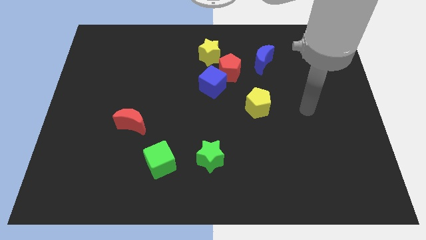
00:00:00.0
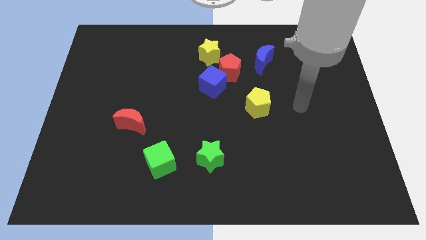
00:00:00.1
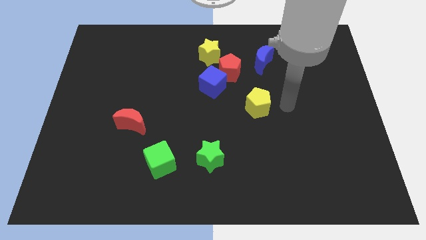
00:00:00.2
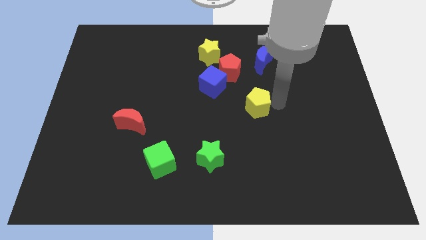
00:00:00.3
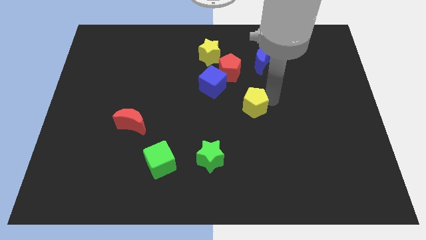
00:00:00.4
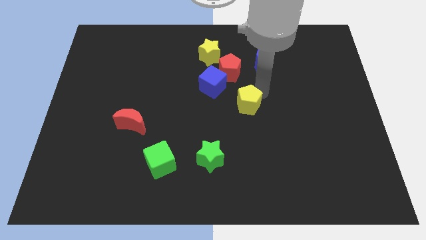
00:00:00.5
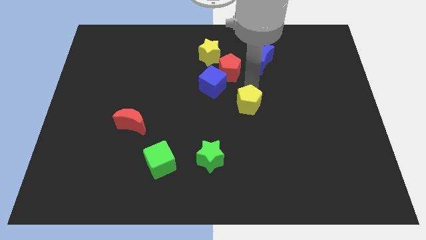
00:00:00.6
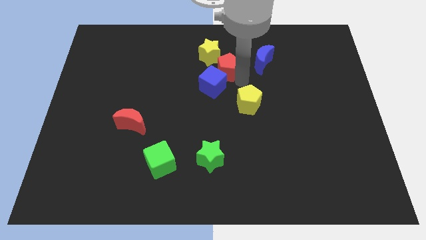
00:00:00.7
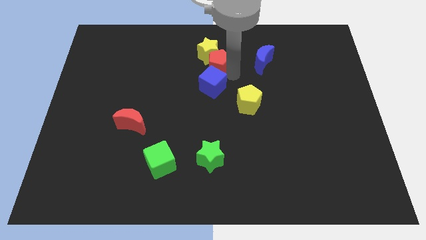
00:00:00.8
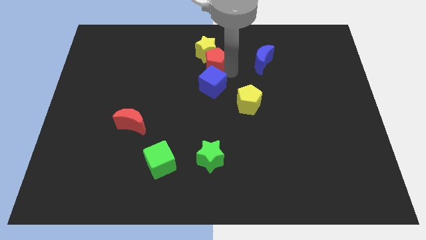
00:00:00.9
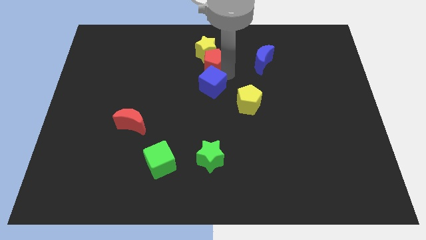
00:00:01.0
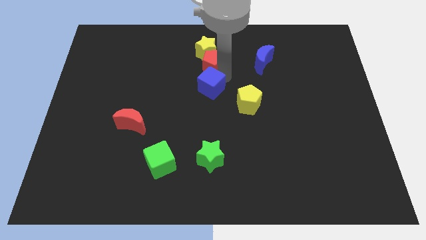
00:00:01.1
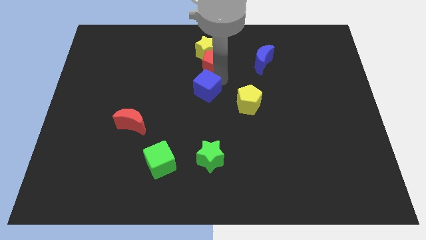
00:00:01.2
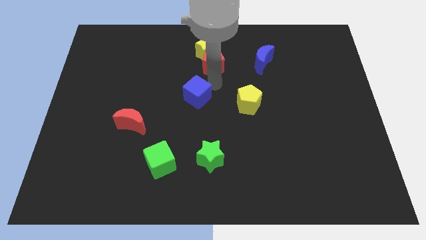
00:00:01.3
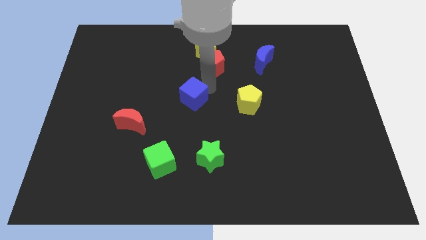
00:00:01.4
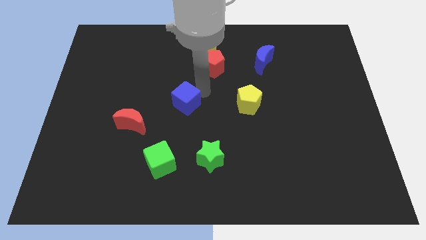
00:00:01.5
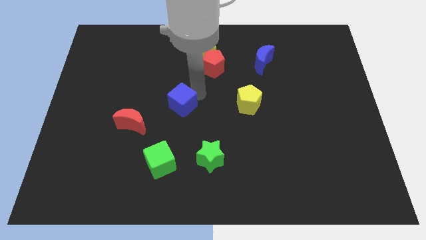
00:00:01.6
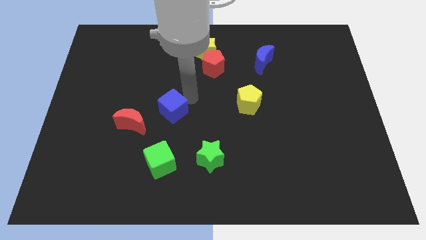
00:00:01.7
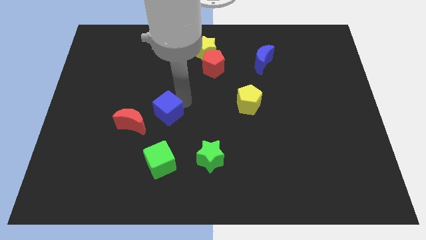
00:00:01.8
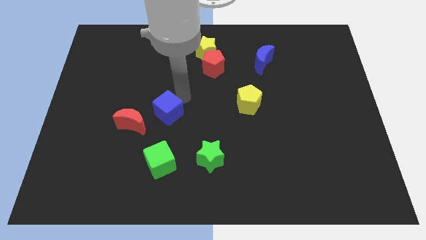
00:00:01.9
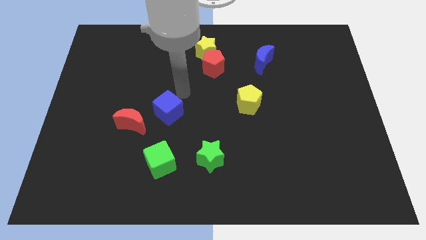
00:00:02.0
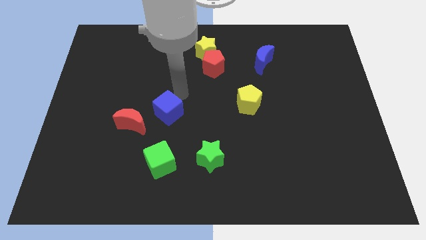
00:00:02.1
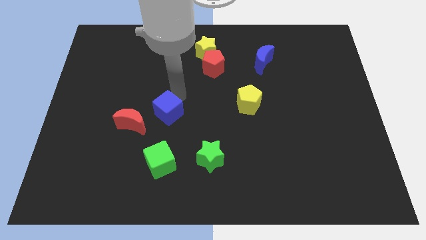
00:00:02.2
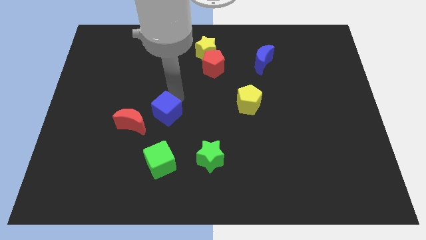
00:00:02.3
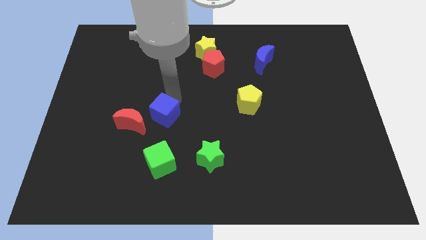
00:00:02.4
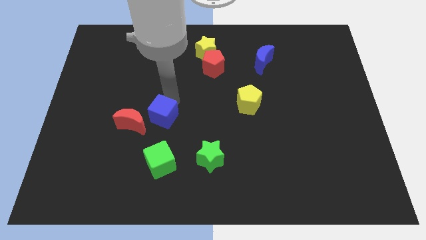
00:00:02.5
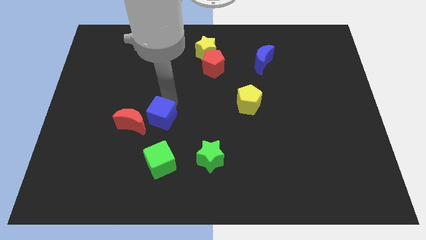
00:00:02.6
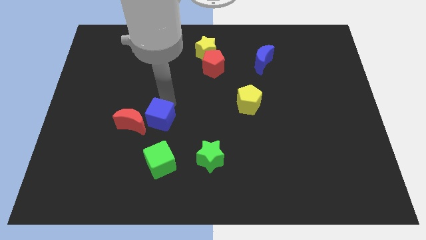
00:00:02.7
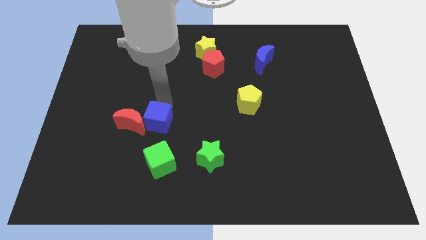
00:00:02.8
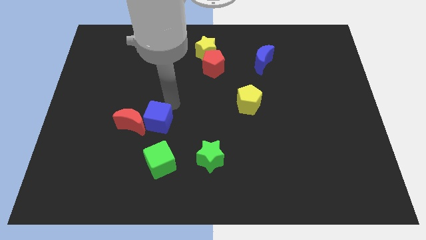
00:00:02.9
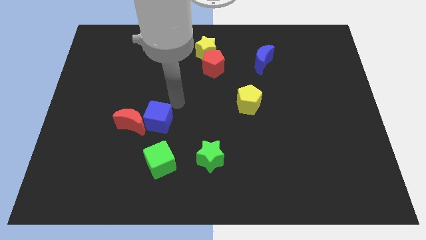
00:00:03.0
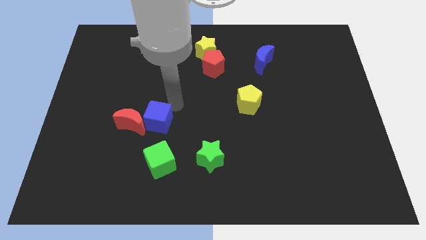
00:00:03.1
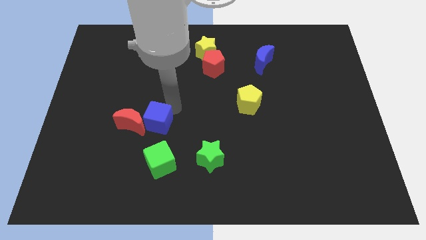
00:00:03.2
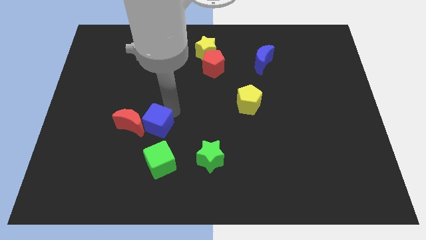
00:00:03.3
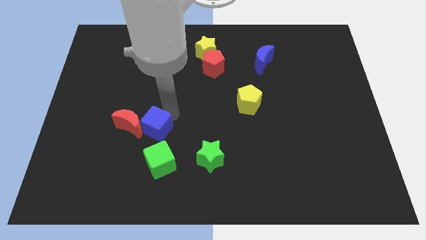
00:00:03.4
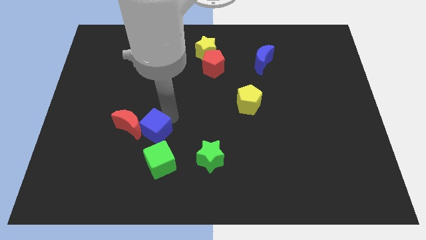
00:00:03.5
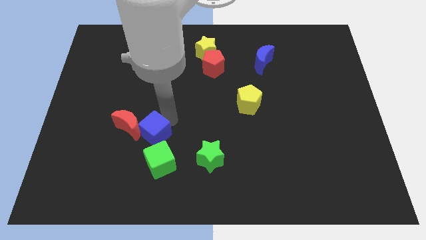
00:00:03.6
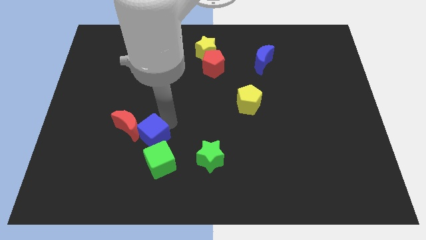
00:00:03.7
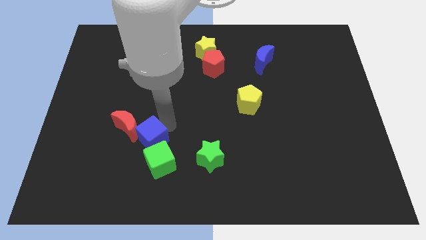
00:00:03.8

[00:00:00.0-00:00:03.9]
push the blue cube diagonally downwards and left

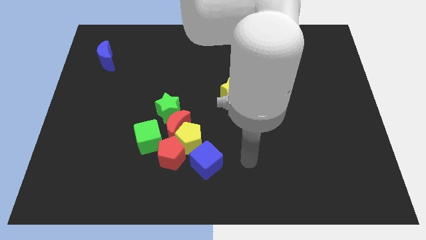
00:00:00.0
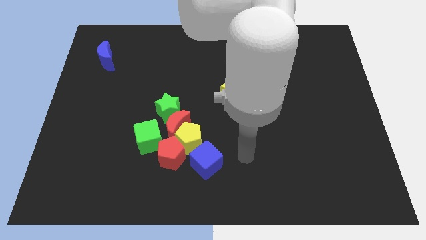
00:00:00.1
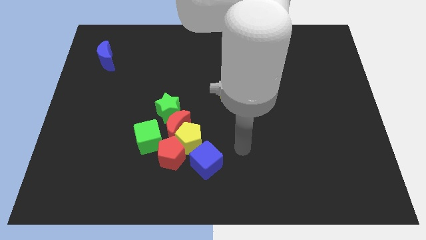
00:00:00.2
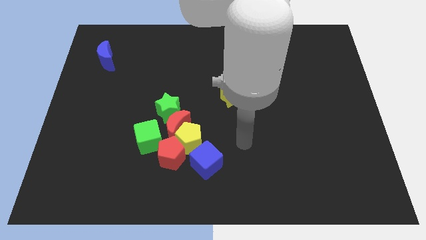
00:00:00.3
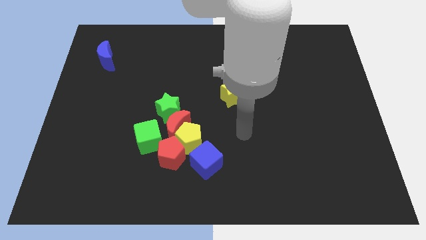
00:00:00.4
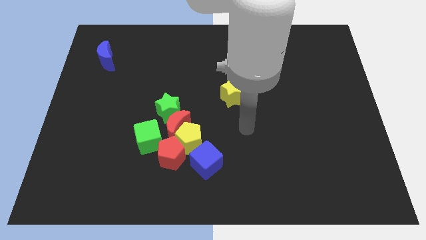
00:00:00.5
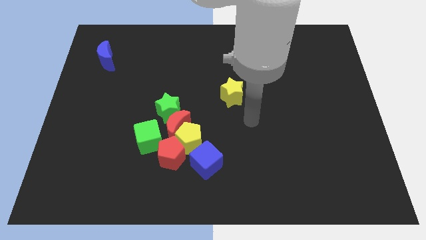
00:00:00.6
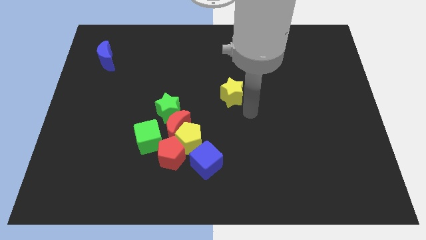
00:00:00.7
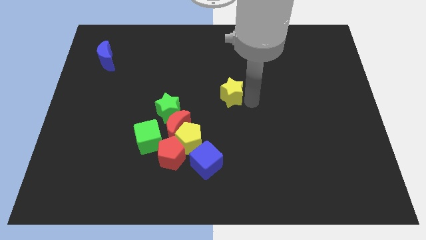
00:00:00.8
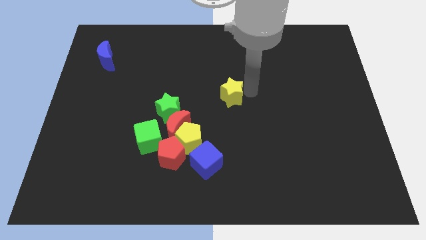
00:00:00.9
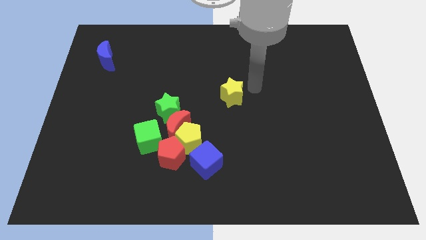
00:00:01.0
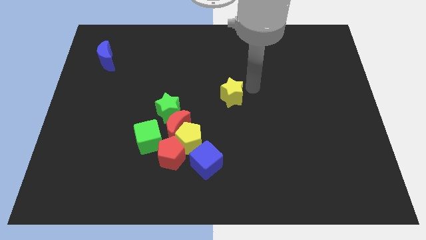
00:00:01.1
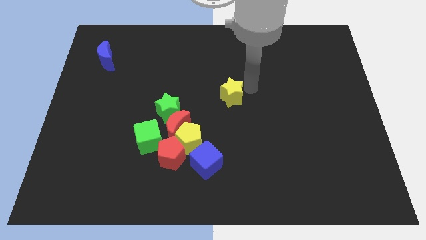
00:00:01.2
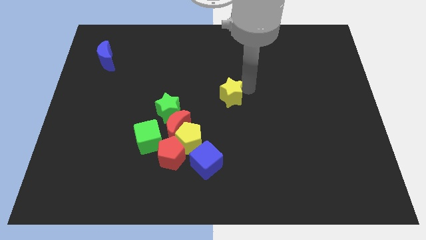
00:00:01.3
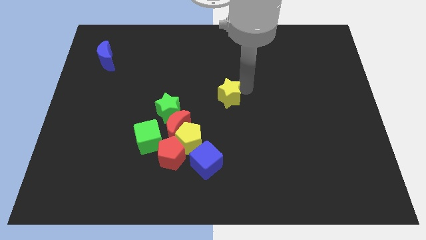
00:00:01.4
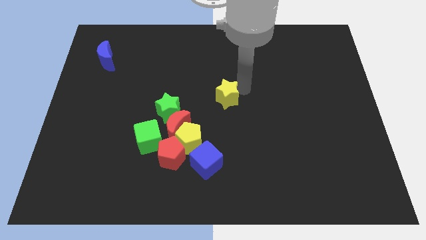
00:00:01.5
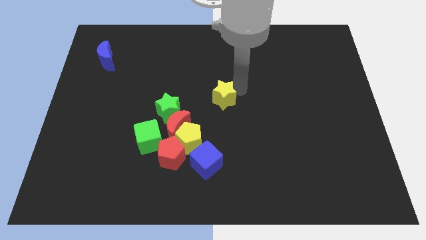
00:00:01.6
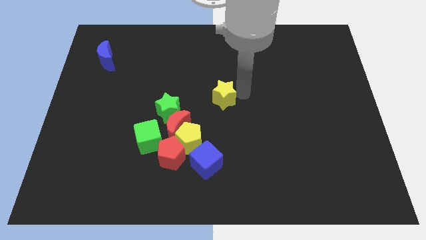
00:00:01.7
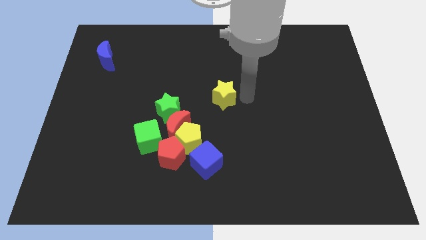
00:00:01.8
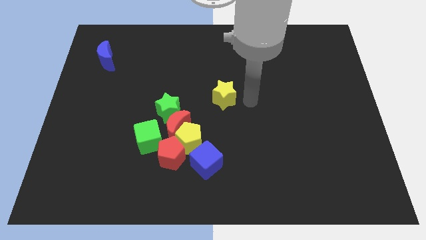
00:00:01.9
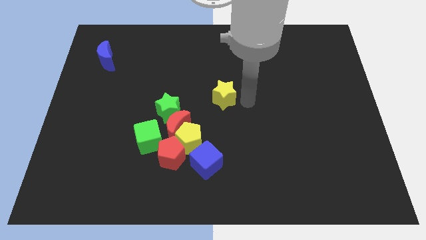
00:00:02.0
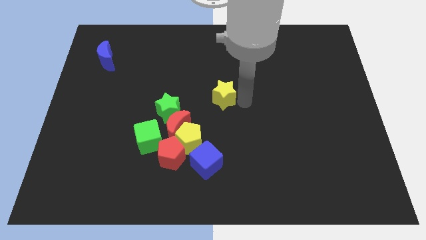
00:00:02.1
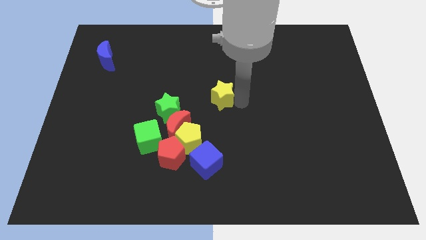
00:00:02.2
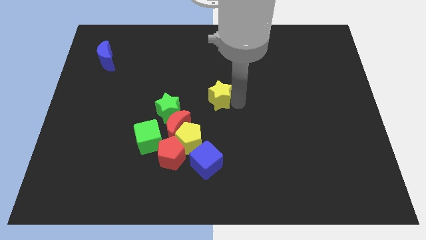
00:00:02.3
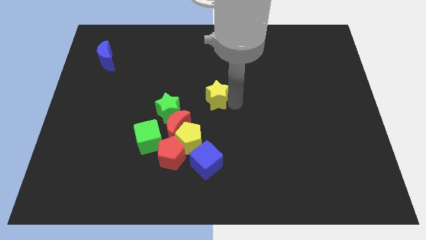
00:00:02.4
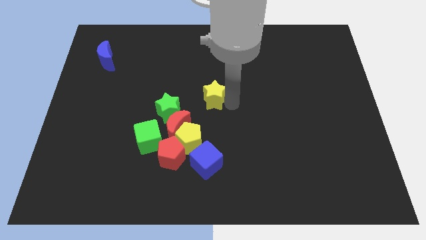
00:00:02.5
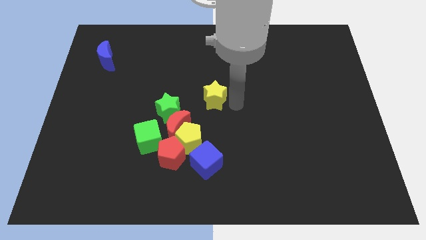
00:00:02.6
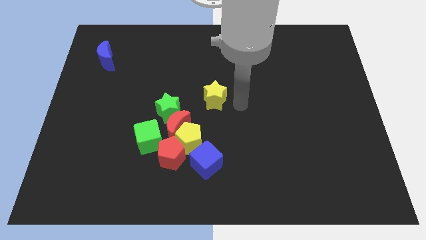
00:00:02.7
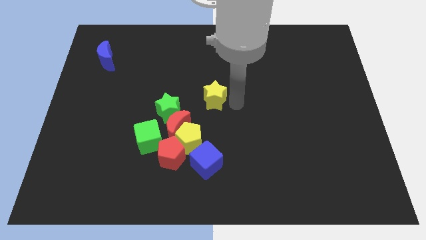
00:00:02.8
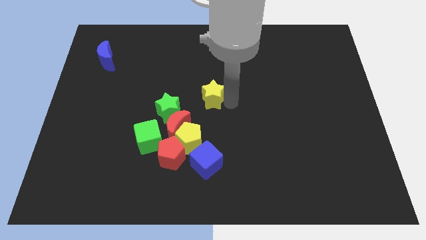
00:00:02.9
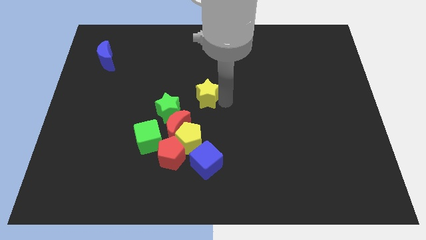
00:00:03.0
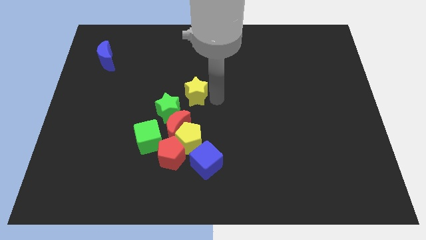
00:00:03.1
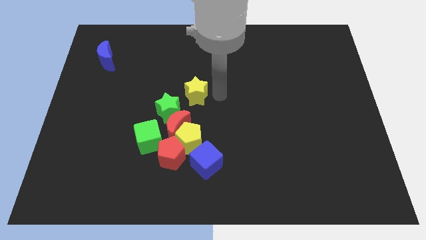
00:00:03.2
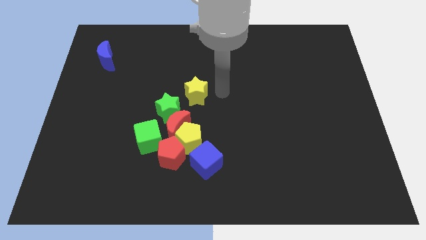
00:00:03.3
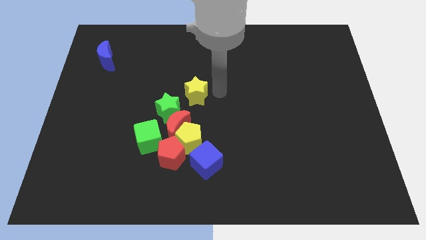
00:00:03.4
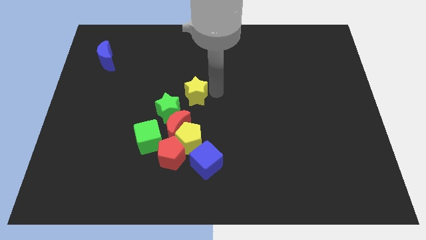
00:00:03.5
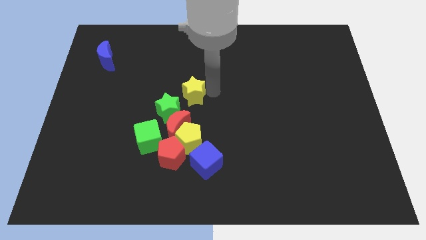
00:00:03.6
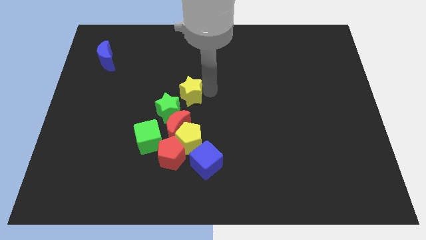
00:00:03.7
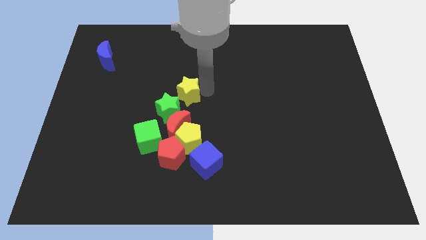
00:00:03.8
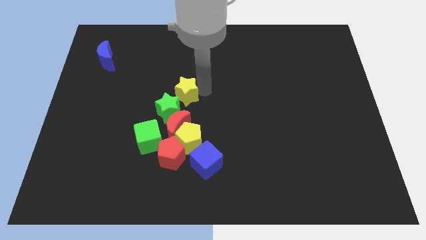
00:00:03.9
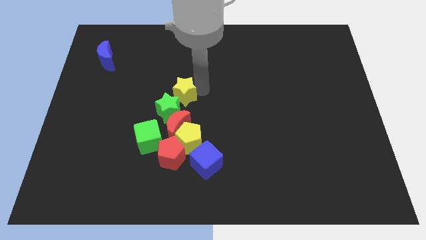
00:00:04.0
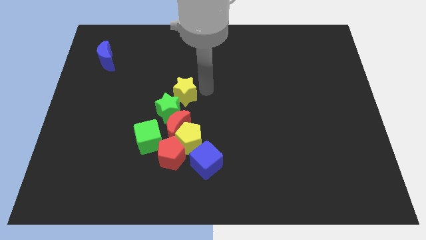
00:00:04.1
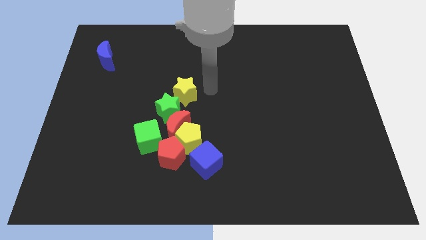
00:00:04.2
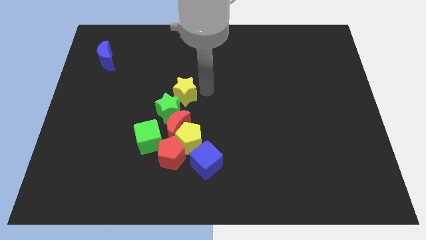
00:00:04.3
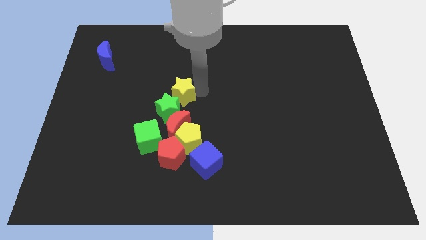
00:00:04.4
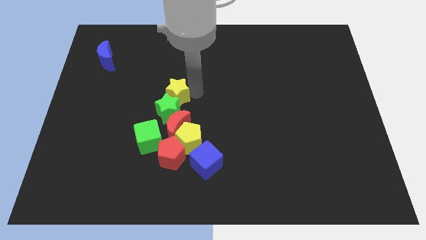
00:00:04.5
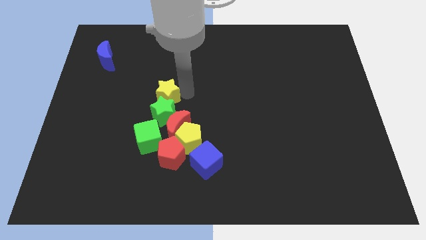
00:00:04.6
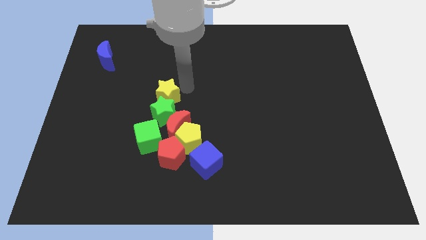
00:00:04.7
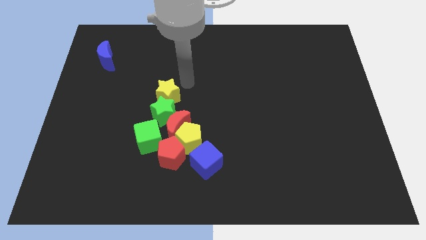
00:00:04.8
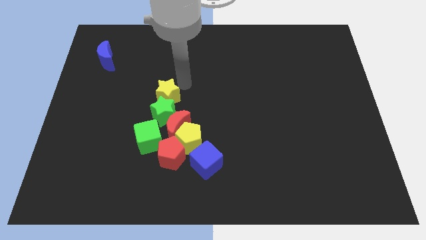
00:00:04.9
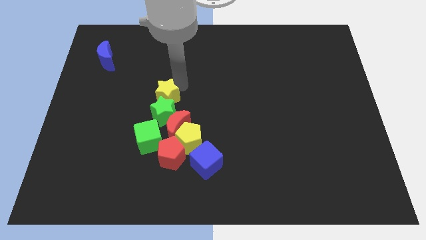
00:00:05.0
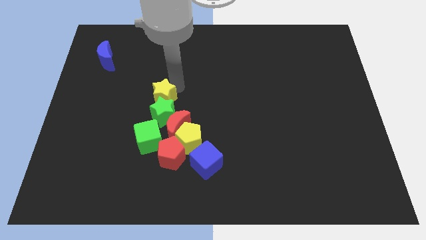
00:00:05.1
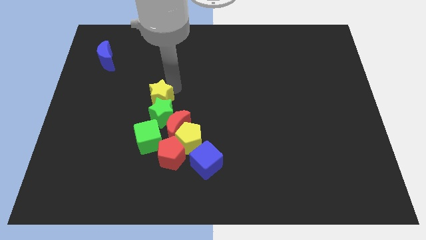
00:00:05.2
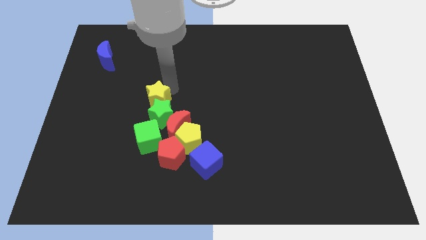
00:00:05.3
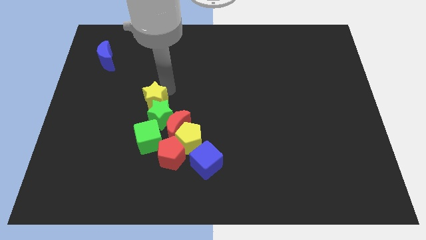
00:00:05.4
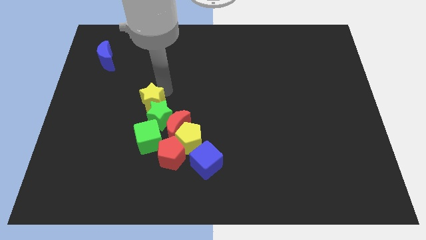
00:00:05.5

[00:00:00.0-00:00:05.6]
move the yellow star diagonally downwards and left a bit
